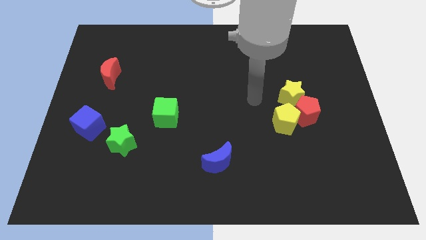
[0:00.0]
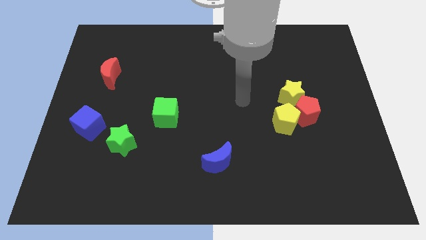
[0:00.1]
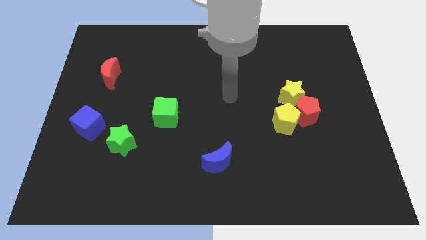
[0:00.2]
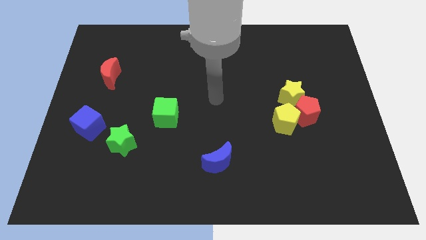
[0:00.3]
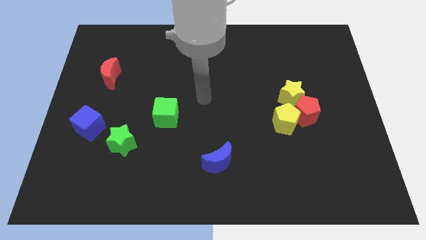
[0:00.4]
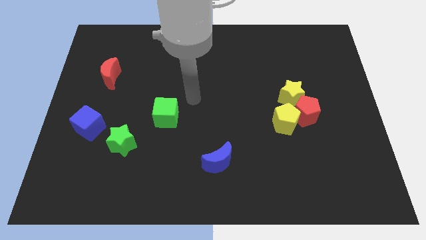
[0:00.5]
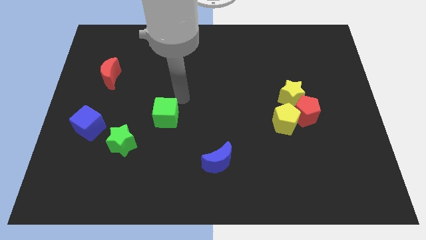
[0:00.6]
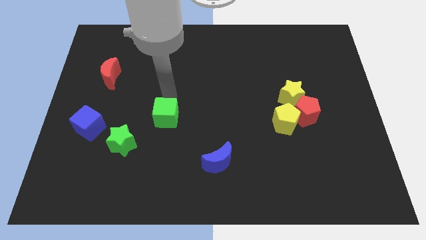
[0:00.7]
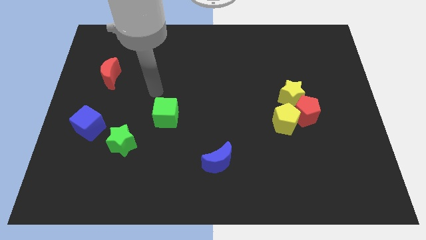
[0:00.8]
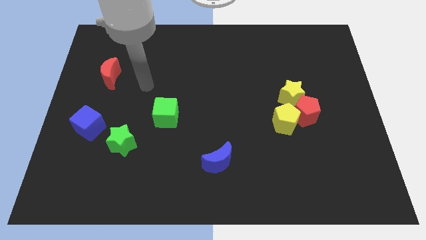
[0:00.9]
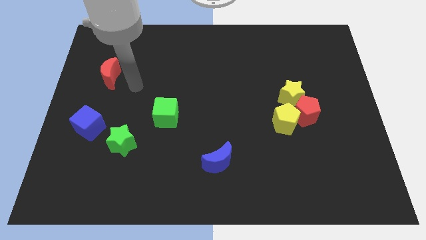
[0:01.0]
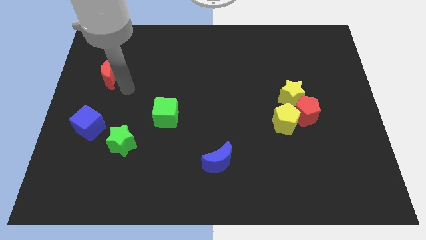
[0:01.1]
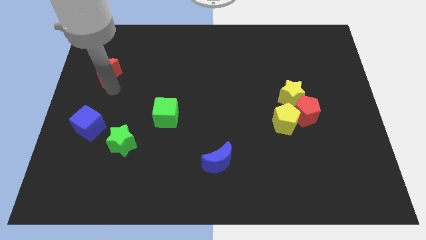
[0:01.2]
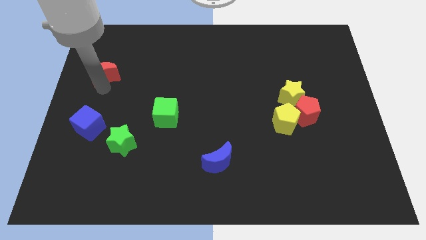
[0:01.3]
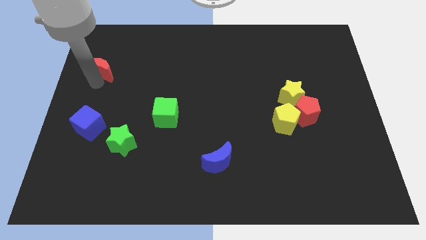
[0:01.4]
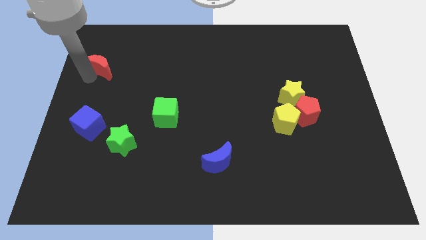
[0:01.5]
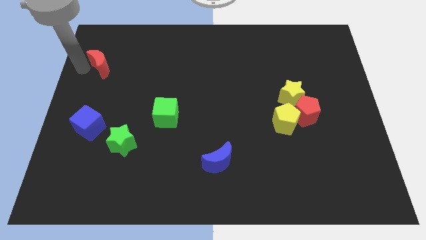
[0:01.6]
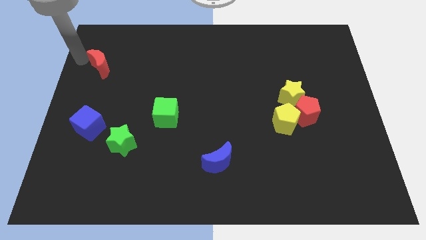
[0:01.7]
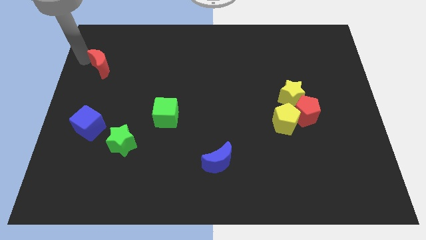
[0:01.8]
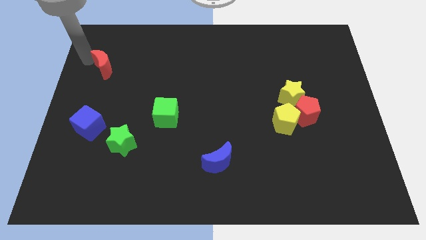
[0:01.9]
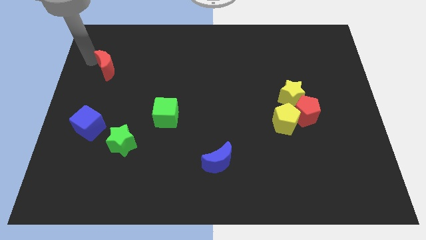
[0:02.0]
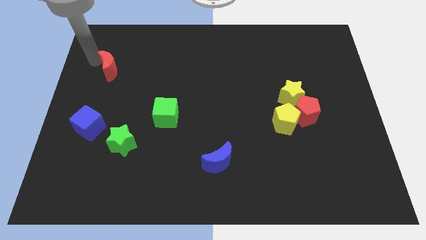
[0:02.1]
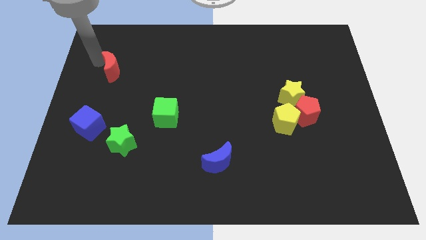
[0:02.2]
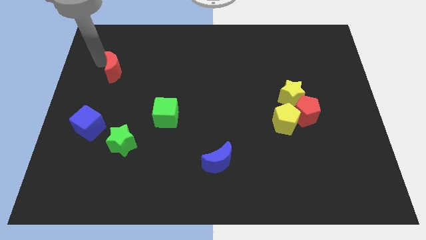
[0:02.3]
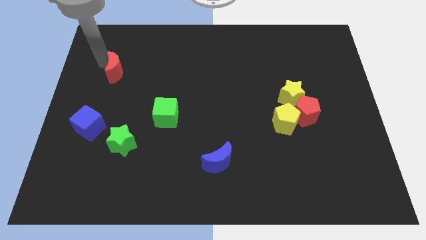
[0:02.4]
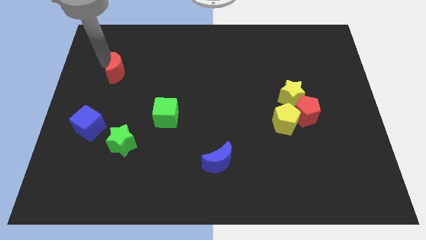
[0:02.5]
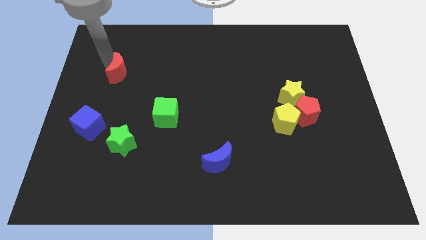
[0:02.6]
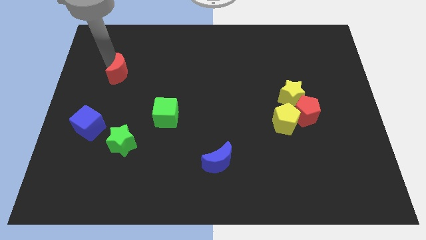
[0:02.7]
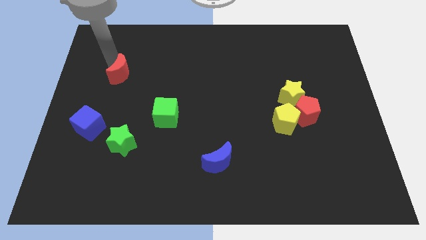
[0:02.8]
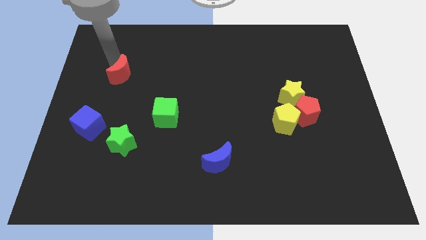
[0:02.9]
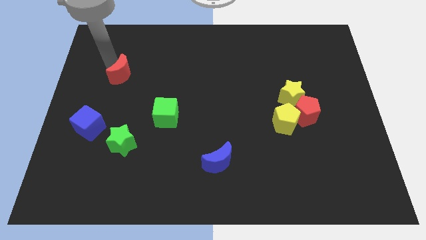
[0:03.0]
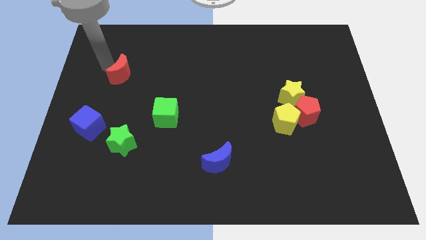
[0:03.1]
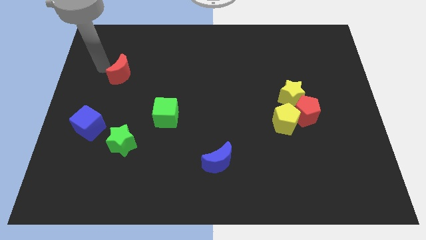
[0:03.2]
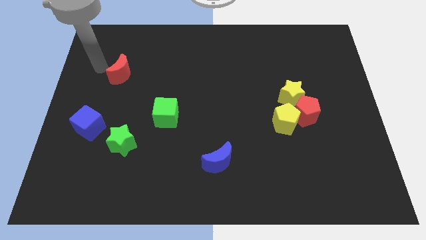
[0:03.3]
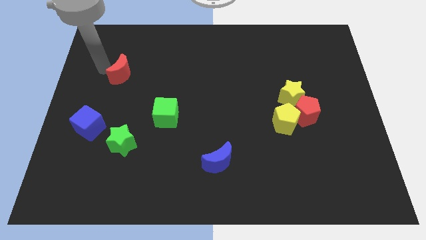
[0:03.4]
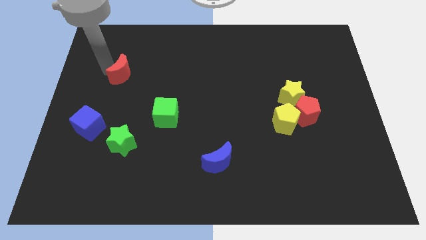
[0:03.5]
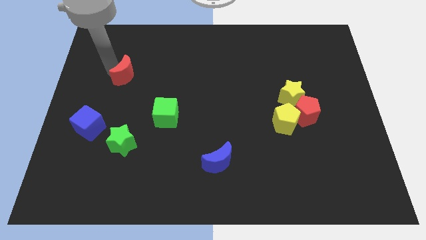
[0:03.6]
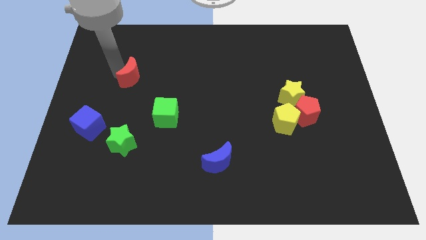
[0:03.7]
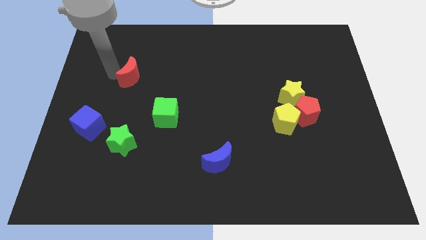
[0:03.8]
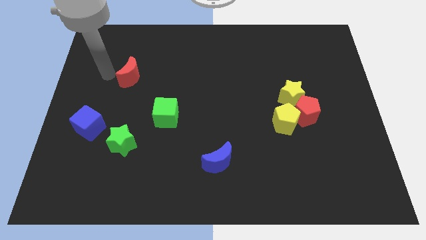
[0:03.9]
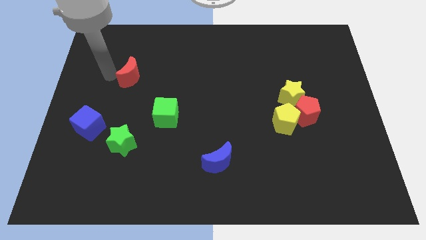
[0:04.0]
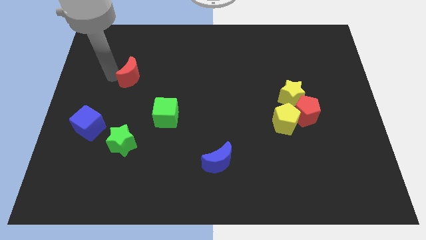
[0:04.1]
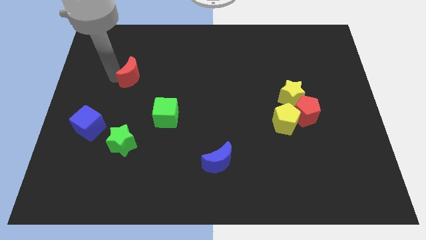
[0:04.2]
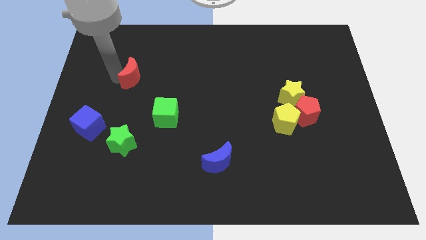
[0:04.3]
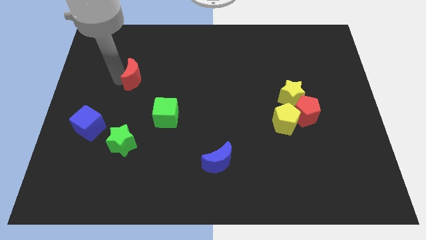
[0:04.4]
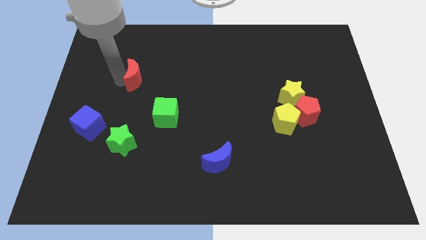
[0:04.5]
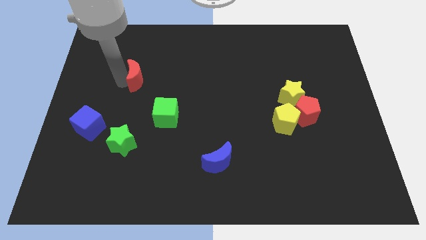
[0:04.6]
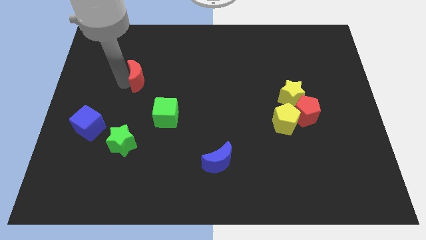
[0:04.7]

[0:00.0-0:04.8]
slide the red moon a little bit to the right

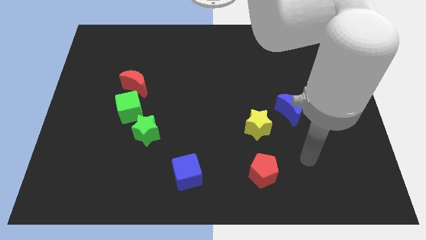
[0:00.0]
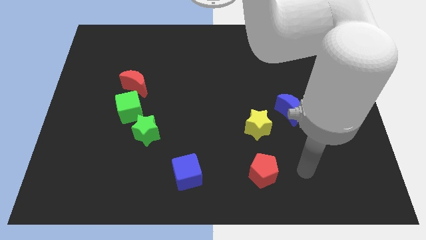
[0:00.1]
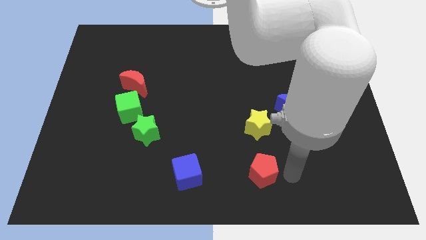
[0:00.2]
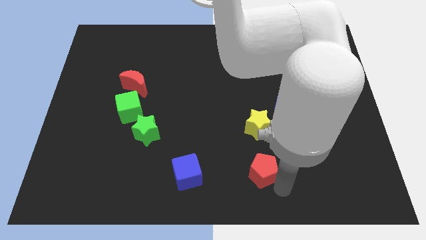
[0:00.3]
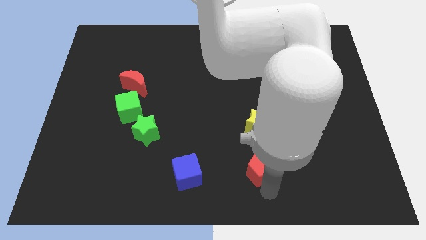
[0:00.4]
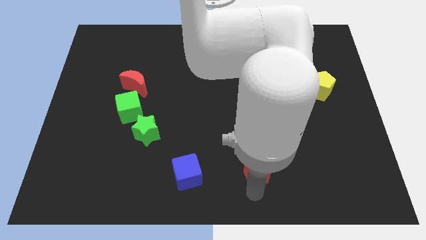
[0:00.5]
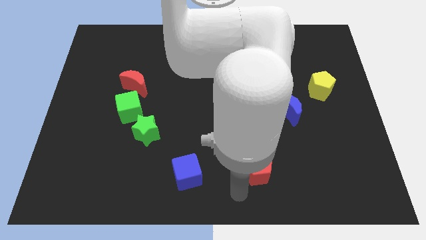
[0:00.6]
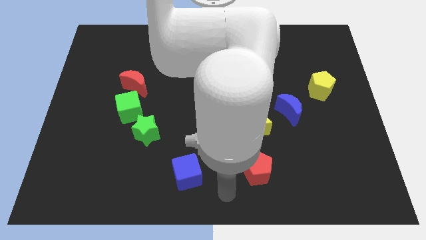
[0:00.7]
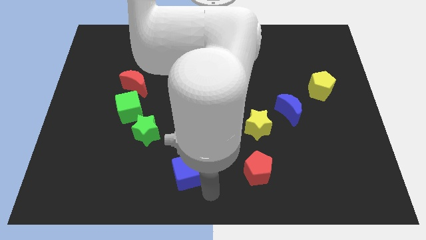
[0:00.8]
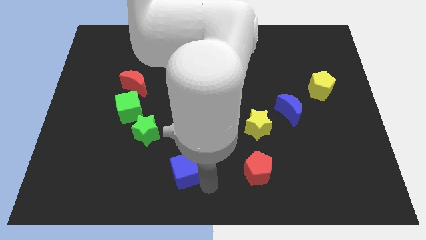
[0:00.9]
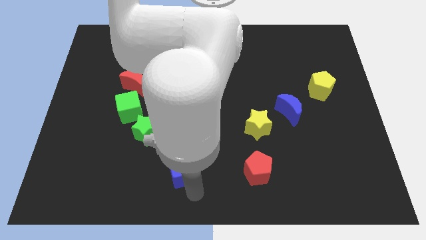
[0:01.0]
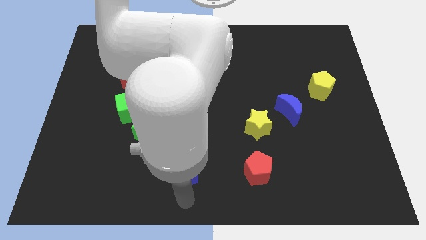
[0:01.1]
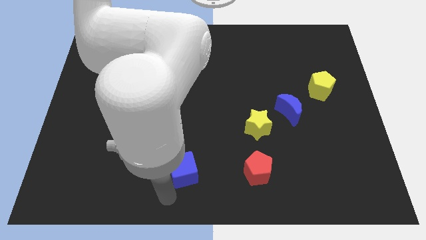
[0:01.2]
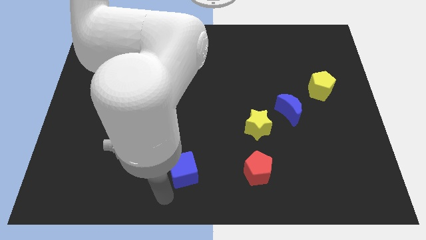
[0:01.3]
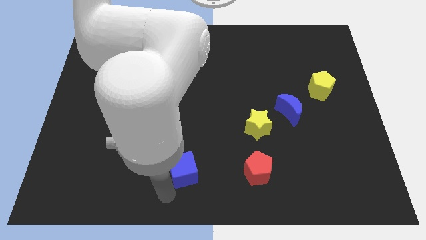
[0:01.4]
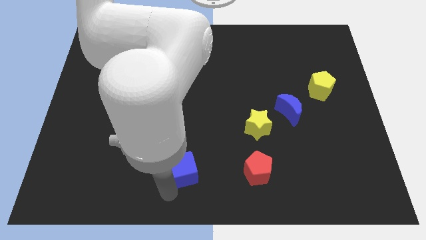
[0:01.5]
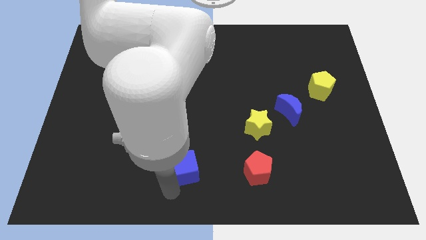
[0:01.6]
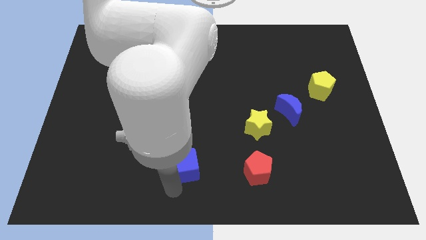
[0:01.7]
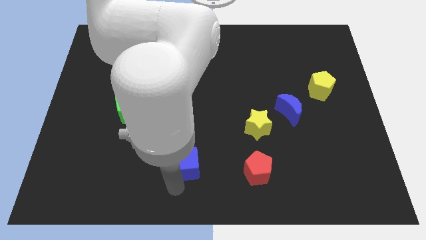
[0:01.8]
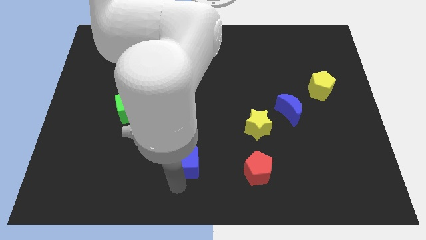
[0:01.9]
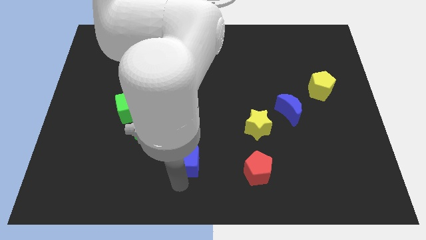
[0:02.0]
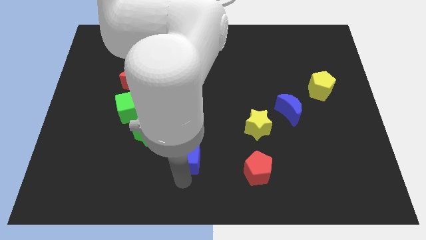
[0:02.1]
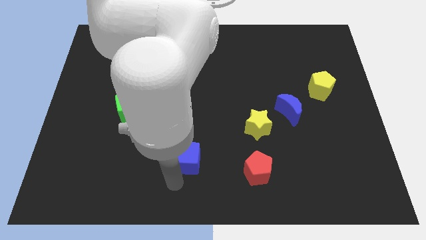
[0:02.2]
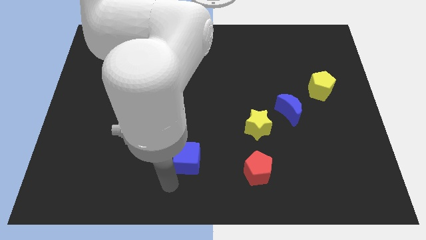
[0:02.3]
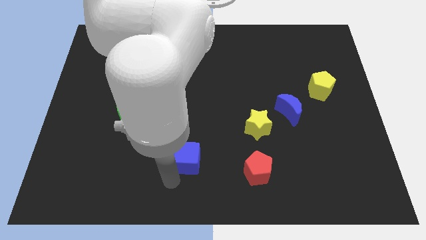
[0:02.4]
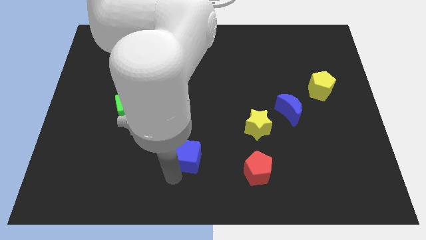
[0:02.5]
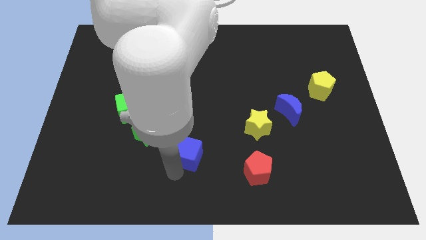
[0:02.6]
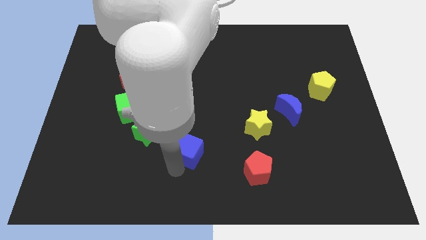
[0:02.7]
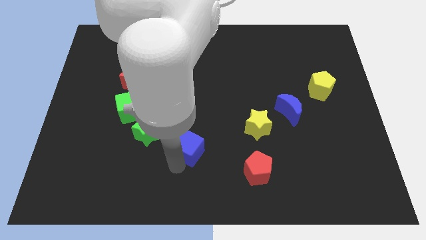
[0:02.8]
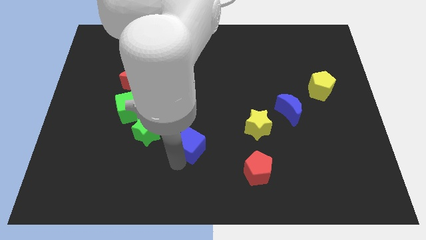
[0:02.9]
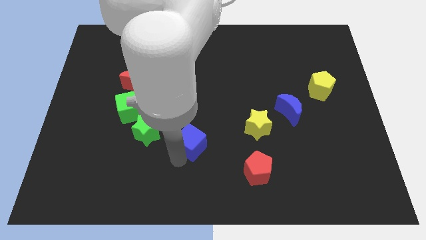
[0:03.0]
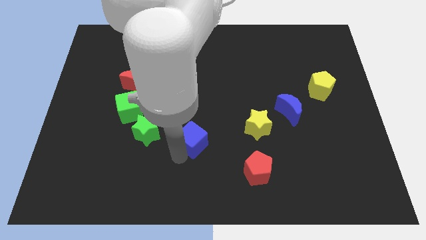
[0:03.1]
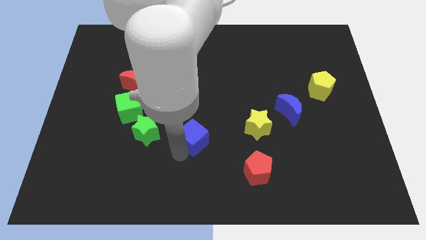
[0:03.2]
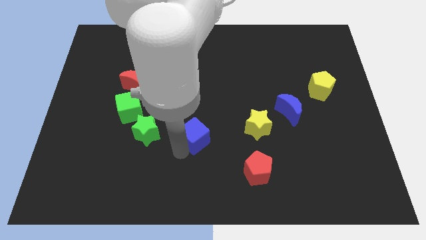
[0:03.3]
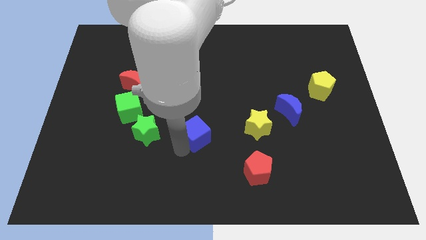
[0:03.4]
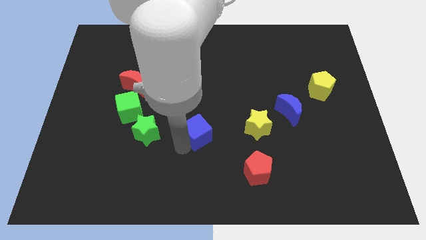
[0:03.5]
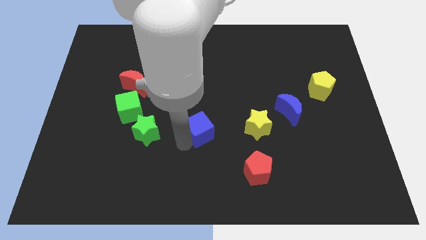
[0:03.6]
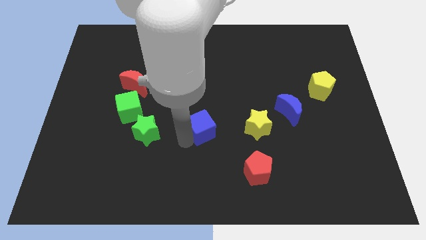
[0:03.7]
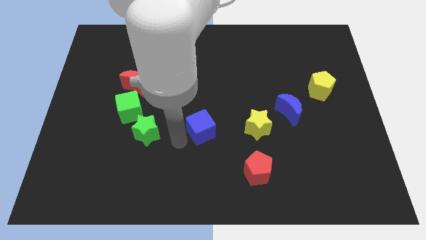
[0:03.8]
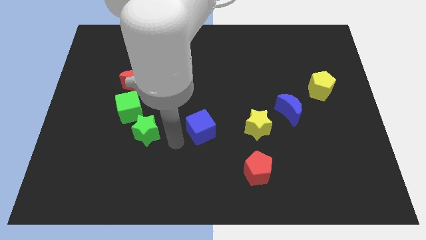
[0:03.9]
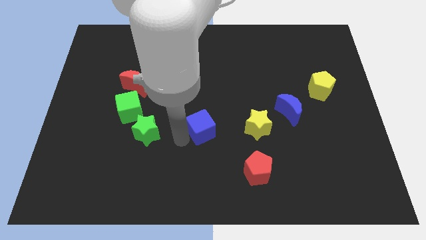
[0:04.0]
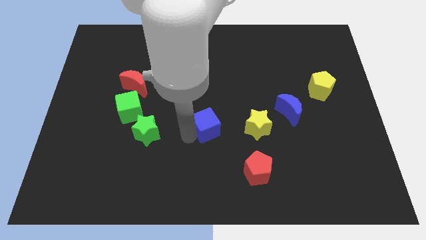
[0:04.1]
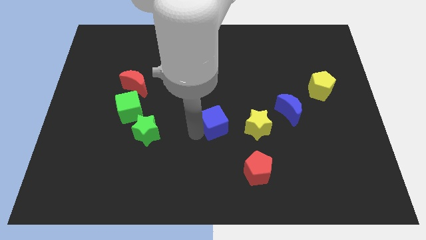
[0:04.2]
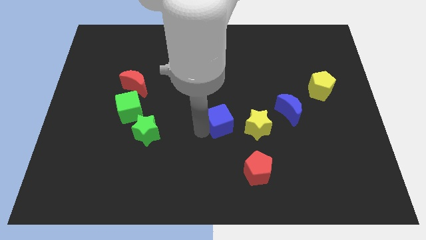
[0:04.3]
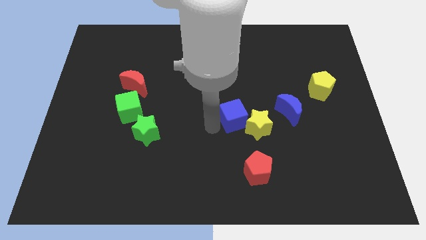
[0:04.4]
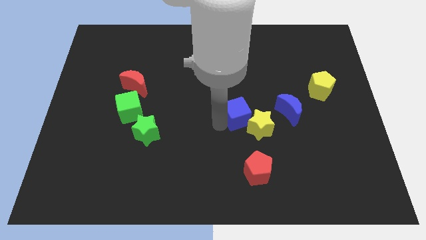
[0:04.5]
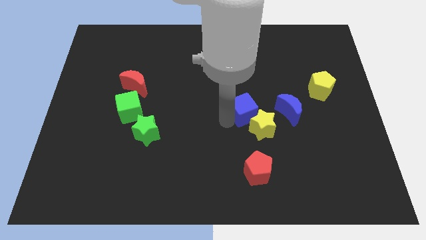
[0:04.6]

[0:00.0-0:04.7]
slide the blue cube diagonally up and right
